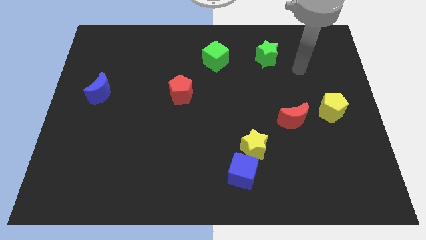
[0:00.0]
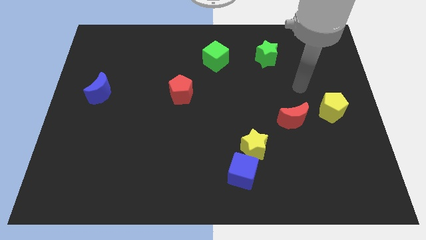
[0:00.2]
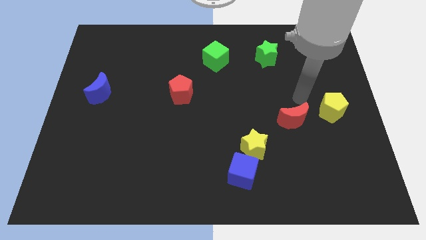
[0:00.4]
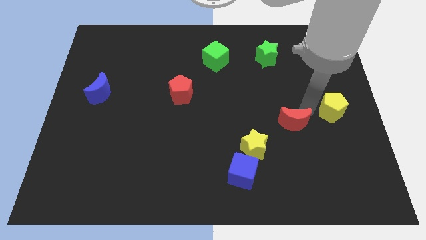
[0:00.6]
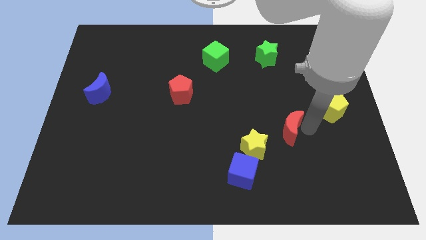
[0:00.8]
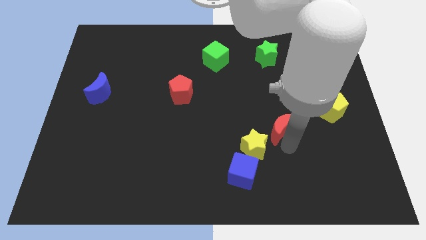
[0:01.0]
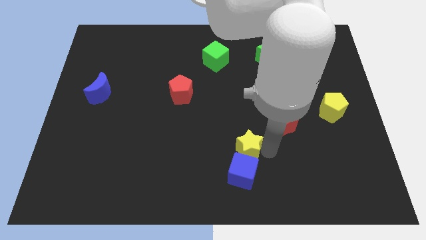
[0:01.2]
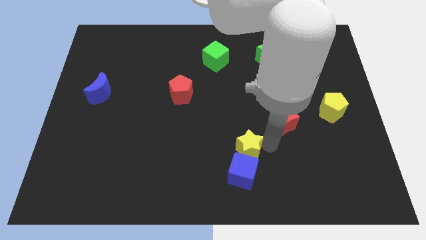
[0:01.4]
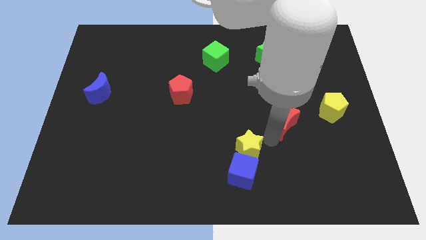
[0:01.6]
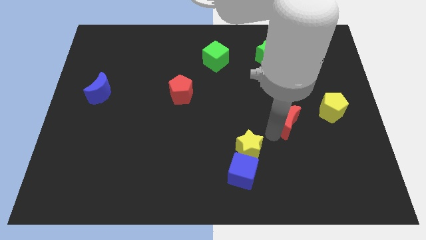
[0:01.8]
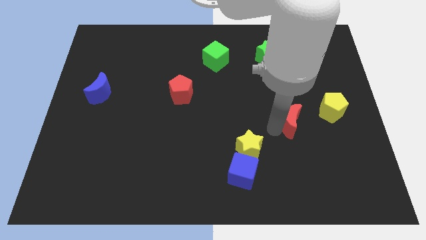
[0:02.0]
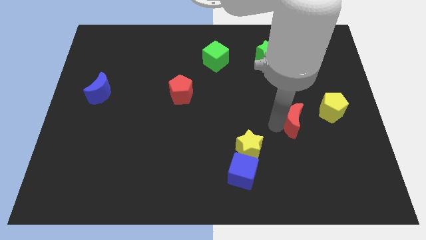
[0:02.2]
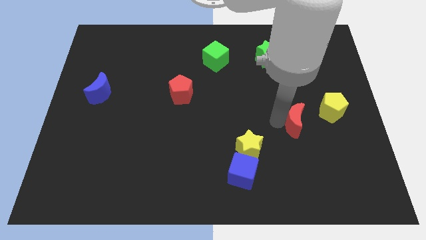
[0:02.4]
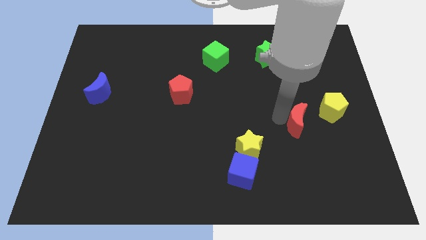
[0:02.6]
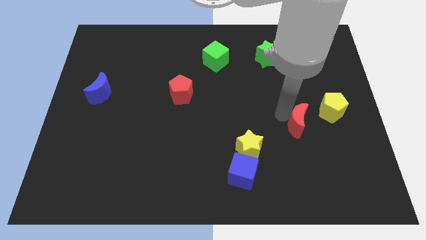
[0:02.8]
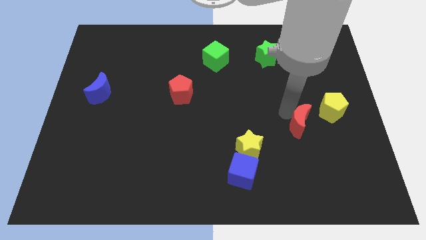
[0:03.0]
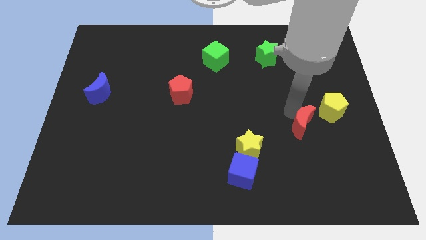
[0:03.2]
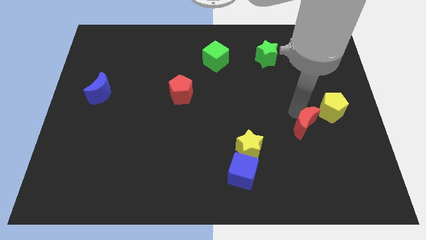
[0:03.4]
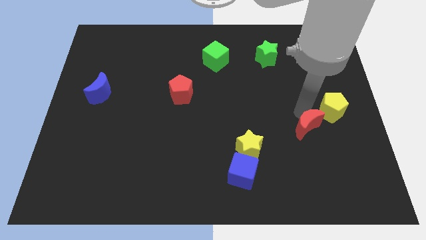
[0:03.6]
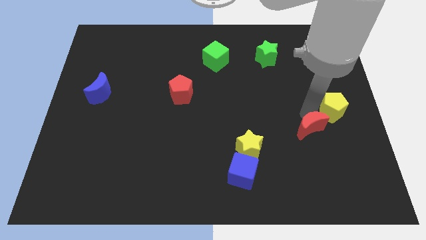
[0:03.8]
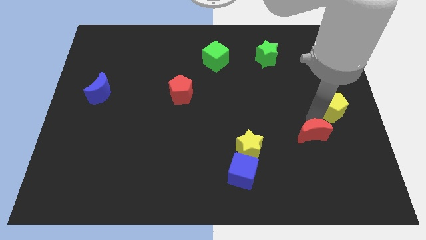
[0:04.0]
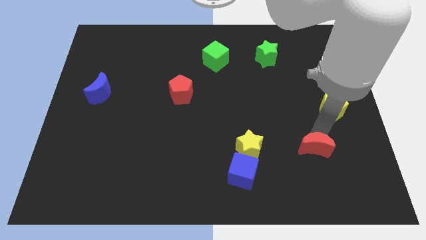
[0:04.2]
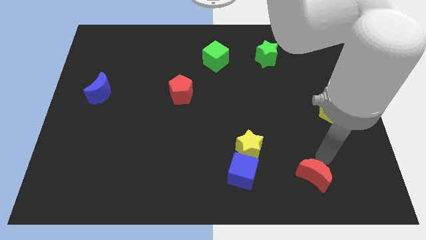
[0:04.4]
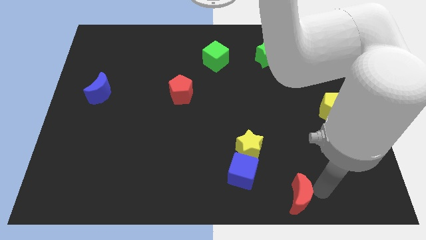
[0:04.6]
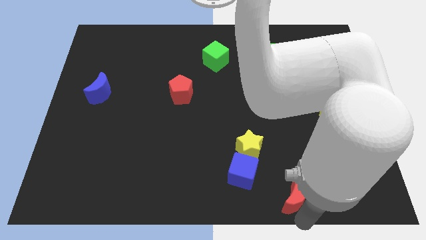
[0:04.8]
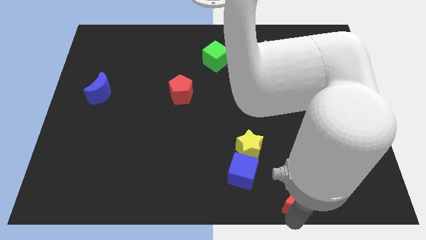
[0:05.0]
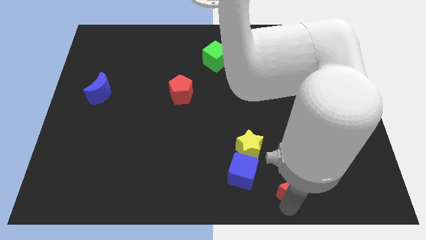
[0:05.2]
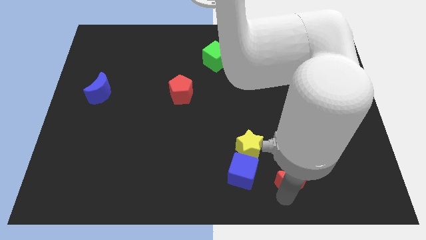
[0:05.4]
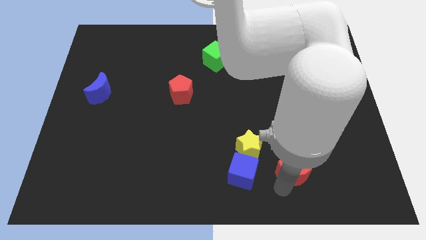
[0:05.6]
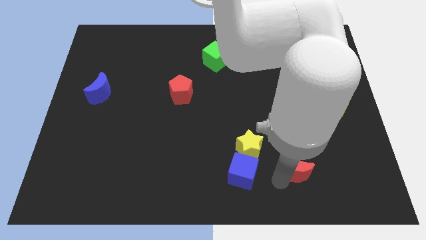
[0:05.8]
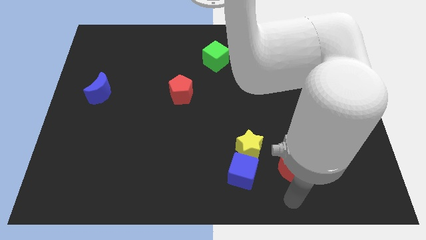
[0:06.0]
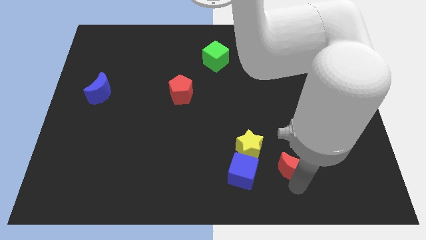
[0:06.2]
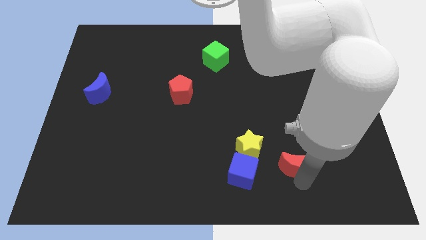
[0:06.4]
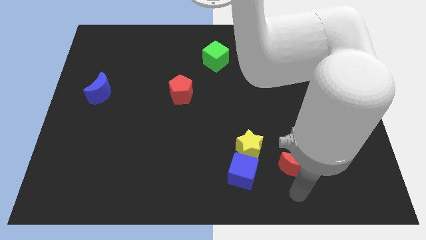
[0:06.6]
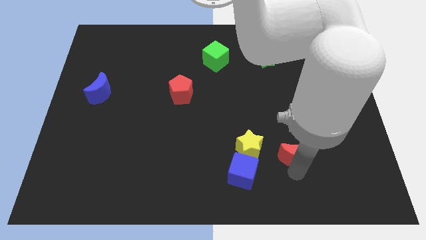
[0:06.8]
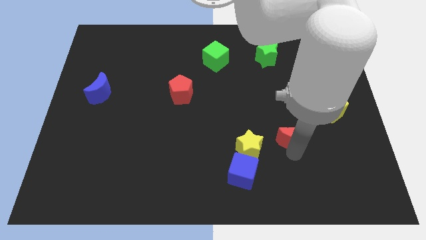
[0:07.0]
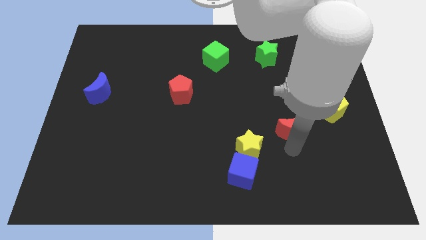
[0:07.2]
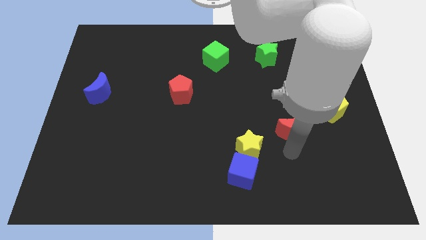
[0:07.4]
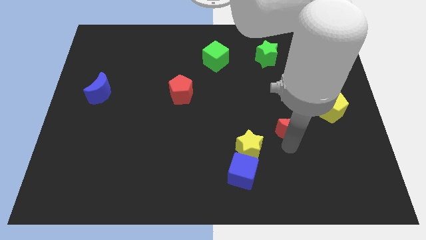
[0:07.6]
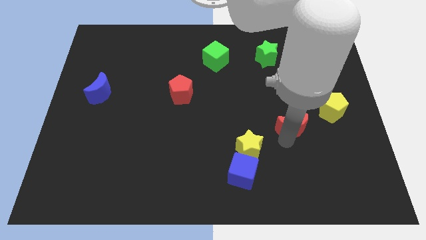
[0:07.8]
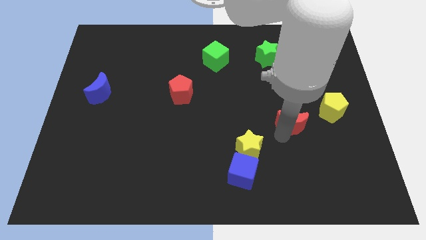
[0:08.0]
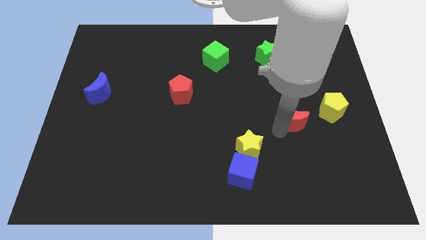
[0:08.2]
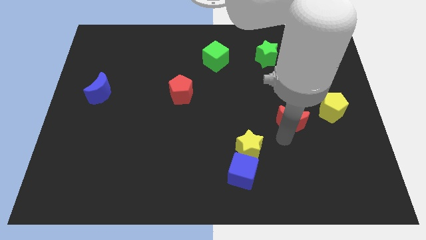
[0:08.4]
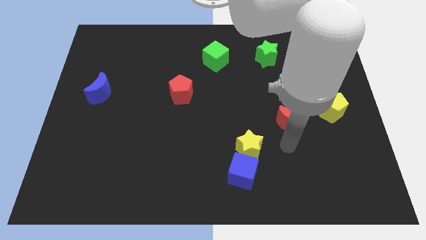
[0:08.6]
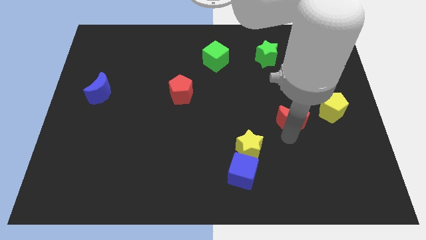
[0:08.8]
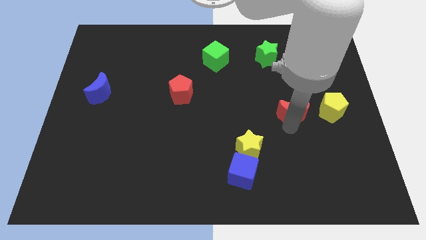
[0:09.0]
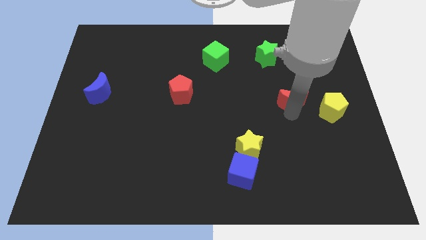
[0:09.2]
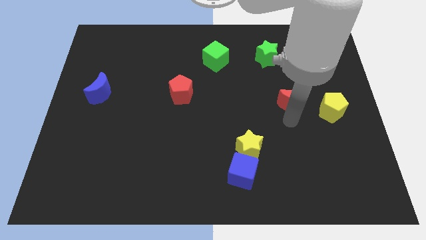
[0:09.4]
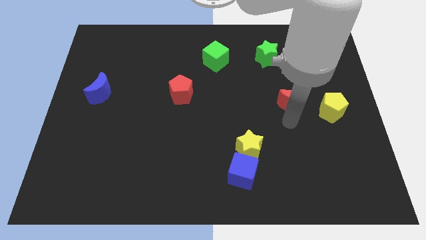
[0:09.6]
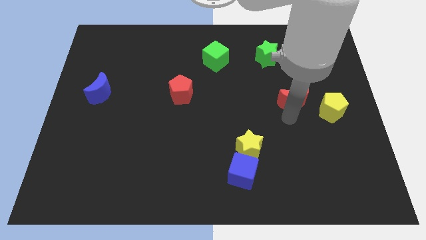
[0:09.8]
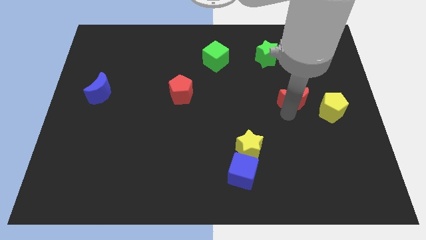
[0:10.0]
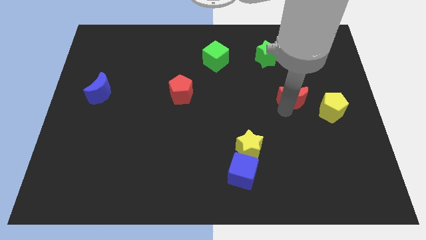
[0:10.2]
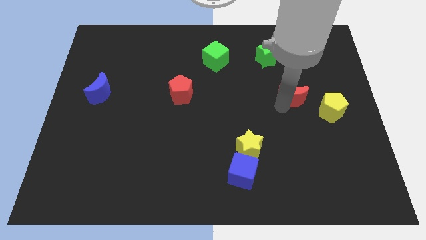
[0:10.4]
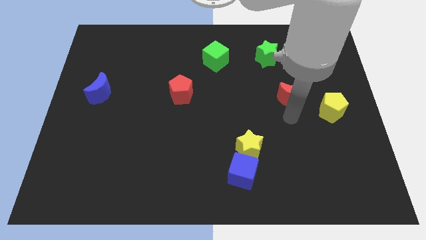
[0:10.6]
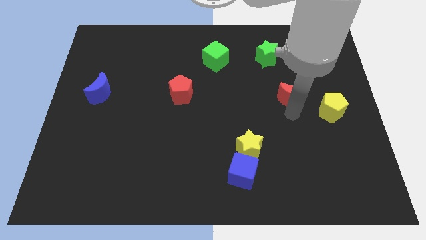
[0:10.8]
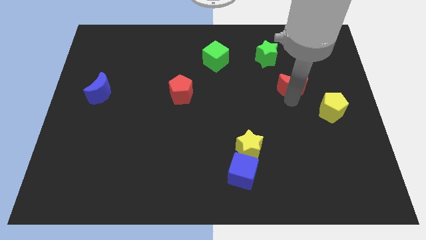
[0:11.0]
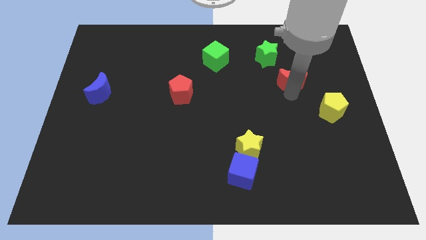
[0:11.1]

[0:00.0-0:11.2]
put the red moon to the bottom right side of the green star

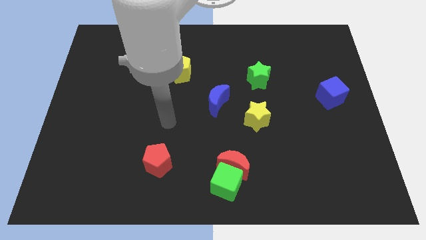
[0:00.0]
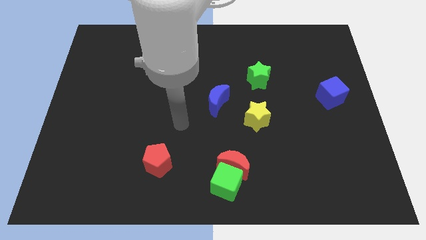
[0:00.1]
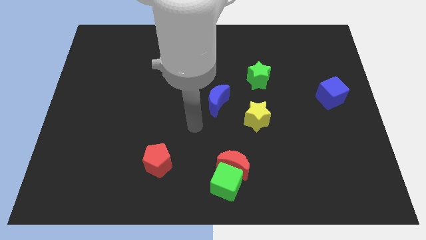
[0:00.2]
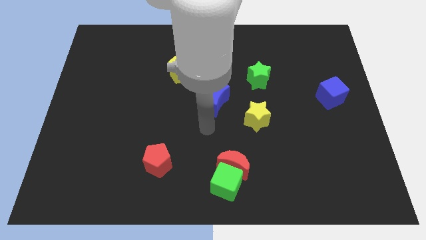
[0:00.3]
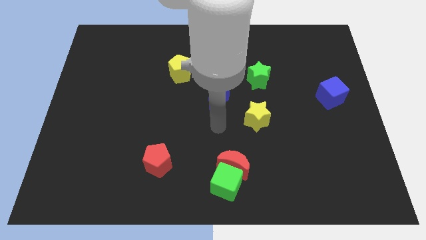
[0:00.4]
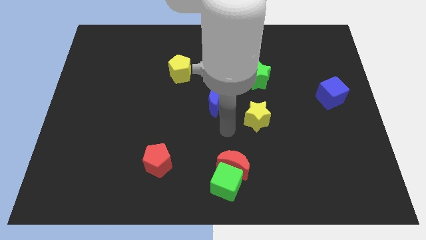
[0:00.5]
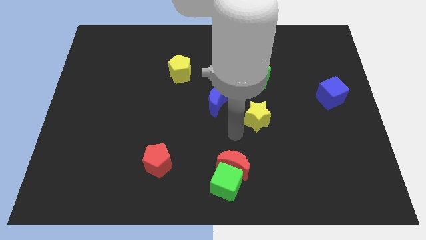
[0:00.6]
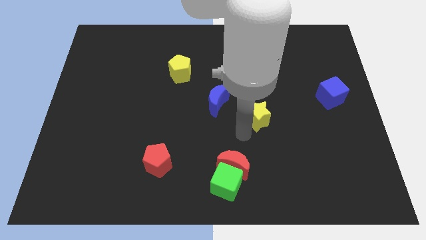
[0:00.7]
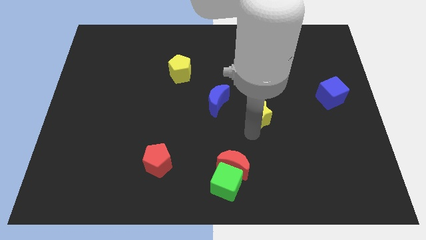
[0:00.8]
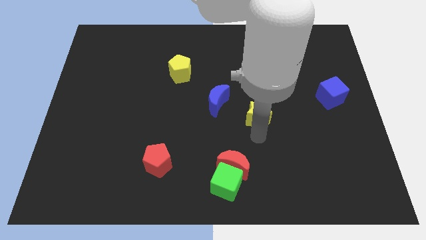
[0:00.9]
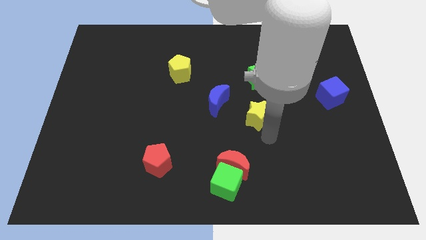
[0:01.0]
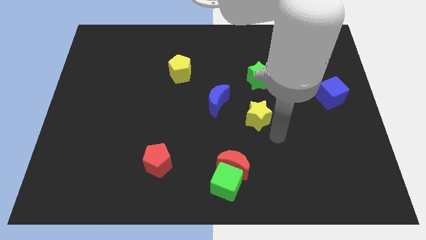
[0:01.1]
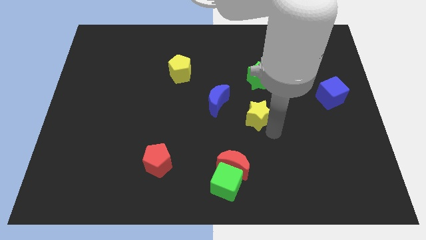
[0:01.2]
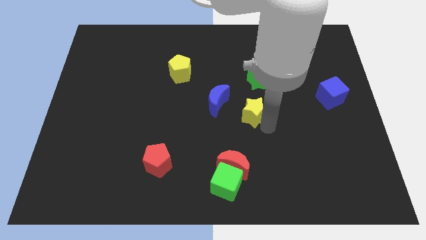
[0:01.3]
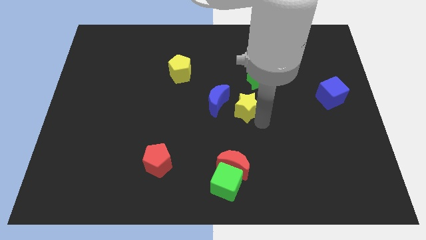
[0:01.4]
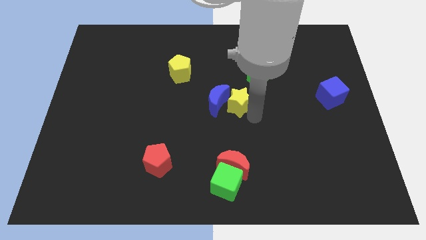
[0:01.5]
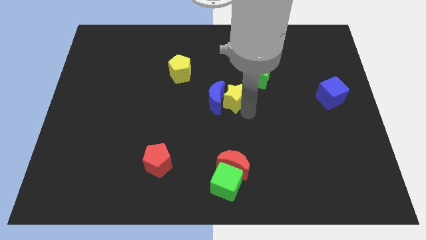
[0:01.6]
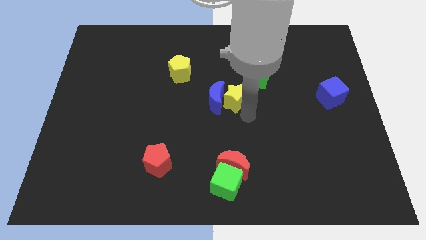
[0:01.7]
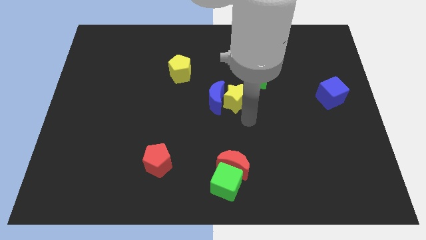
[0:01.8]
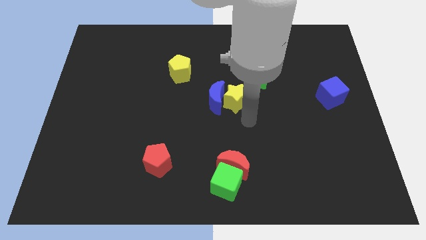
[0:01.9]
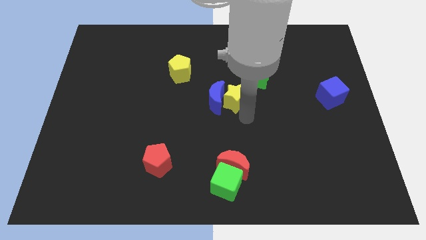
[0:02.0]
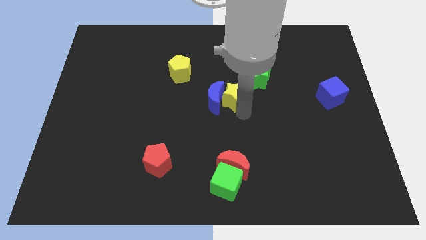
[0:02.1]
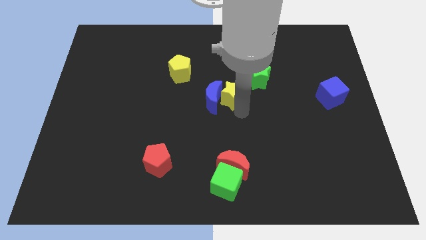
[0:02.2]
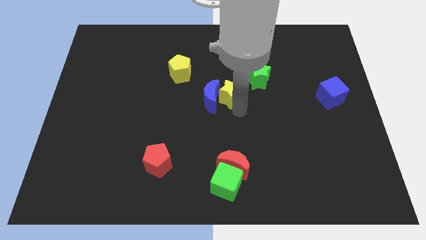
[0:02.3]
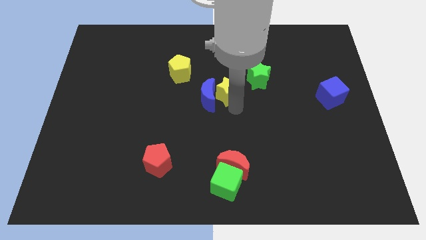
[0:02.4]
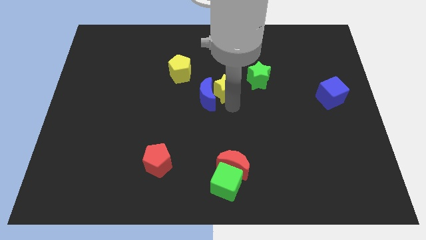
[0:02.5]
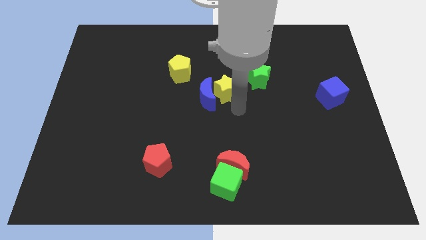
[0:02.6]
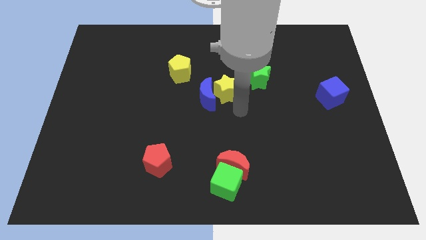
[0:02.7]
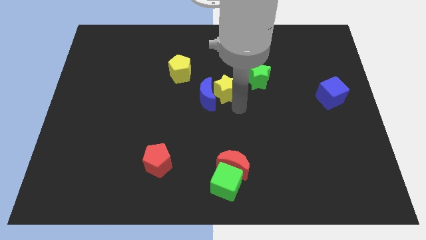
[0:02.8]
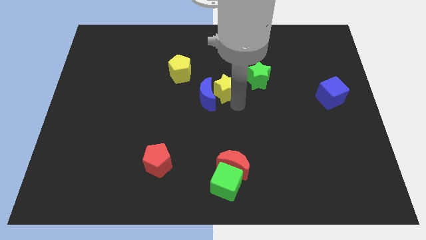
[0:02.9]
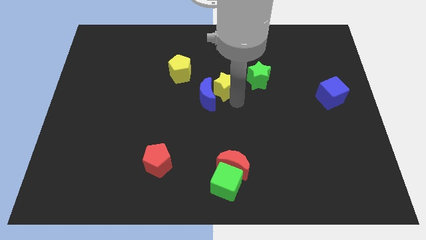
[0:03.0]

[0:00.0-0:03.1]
slide the yellow star above the blue moon
